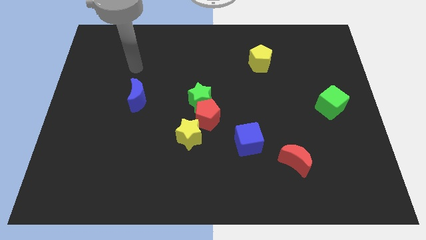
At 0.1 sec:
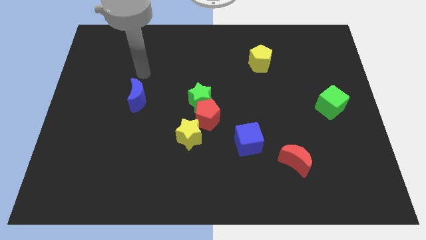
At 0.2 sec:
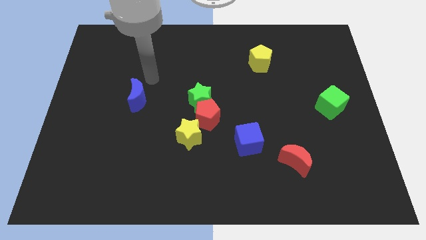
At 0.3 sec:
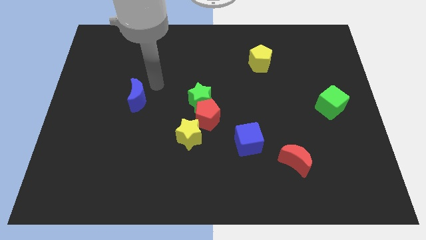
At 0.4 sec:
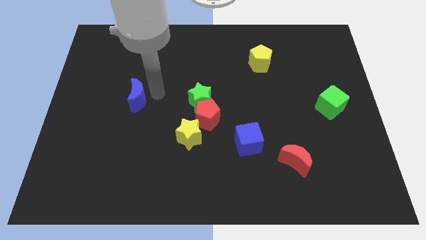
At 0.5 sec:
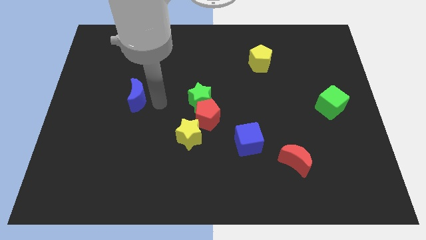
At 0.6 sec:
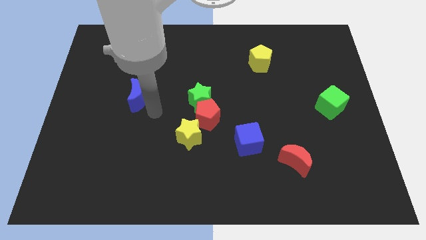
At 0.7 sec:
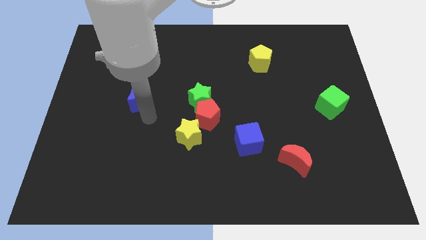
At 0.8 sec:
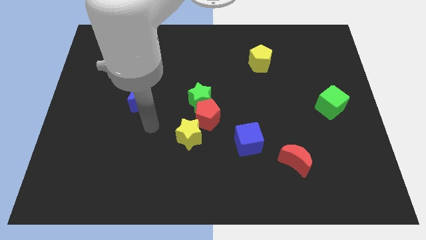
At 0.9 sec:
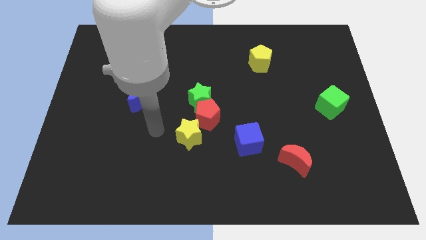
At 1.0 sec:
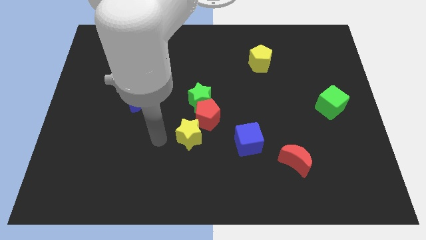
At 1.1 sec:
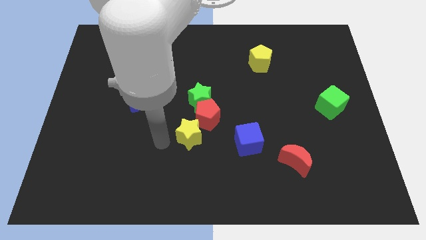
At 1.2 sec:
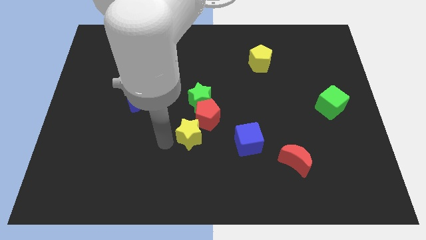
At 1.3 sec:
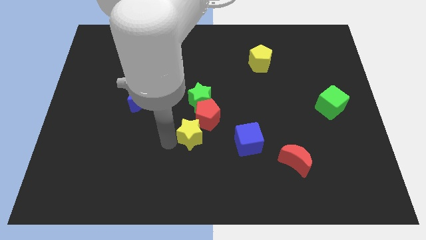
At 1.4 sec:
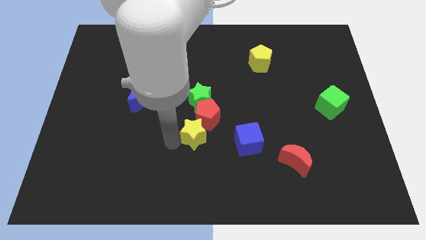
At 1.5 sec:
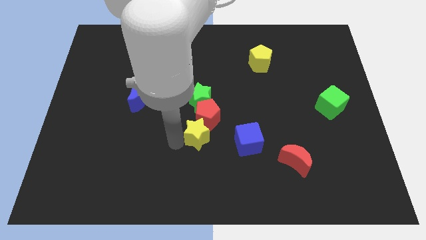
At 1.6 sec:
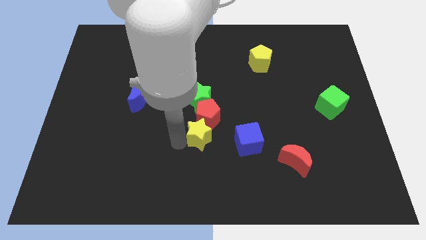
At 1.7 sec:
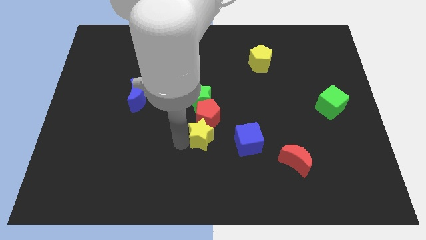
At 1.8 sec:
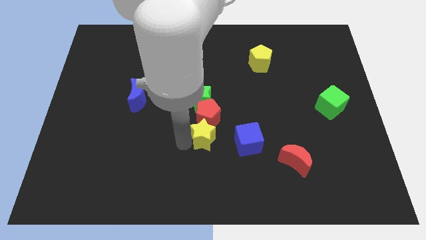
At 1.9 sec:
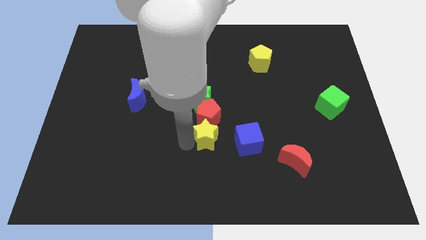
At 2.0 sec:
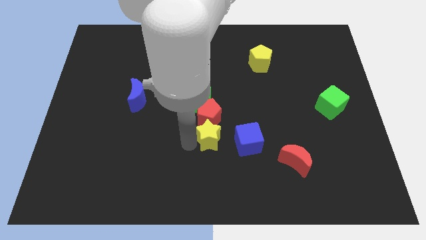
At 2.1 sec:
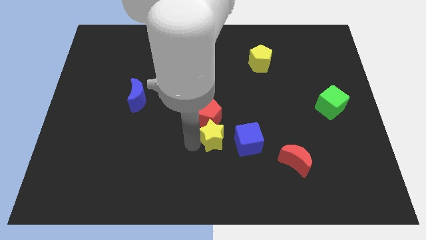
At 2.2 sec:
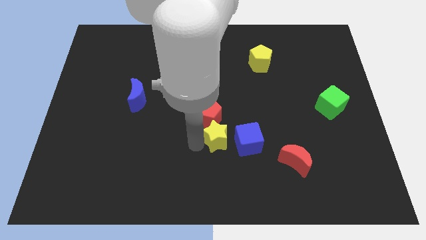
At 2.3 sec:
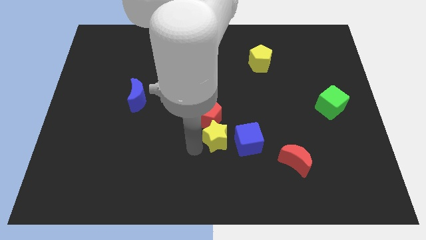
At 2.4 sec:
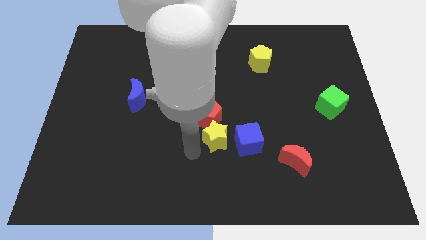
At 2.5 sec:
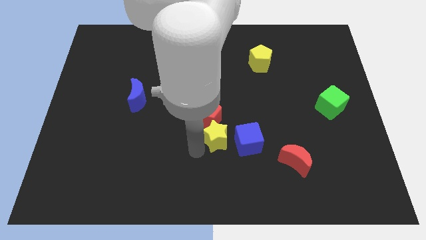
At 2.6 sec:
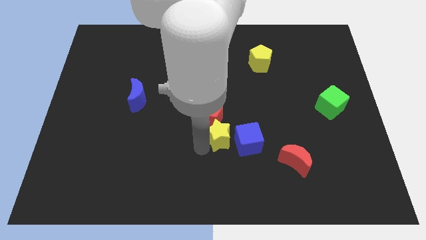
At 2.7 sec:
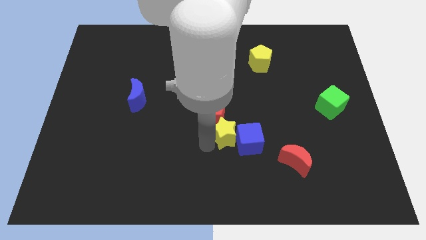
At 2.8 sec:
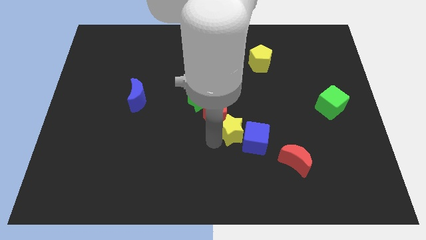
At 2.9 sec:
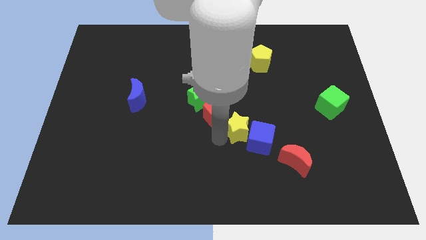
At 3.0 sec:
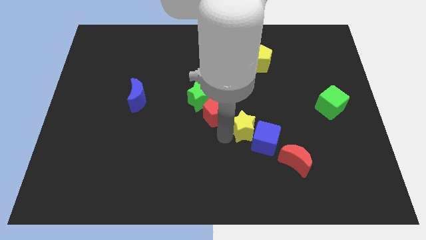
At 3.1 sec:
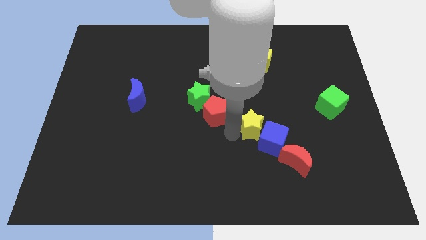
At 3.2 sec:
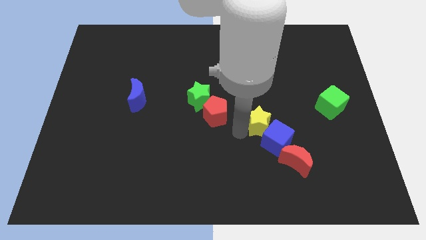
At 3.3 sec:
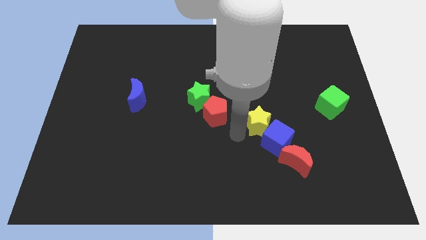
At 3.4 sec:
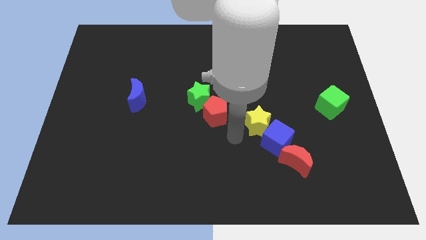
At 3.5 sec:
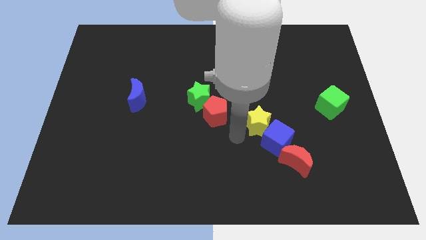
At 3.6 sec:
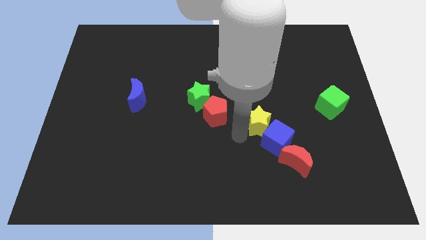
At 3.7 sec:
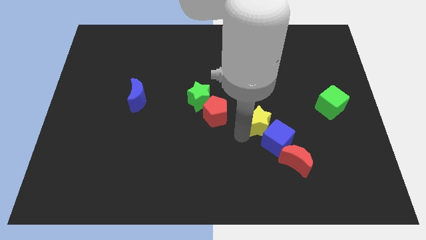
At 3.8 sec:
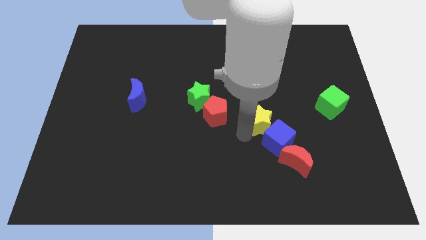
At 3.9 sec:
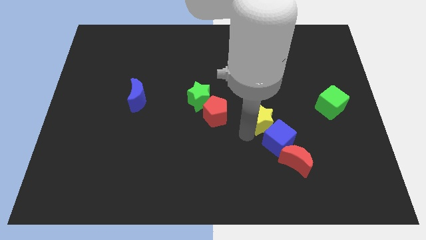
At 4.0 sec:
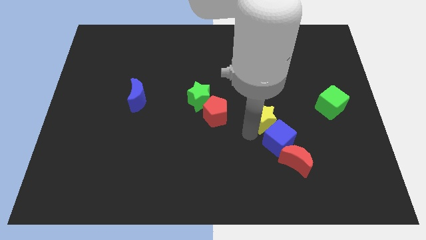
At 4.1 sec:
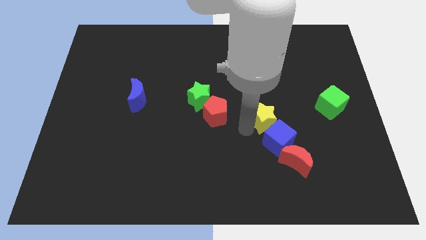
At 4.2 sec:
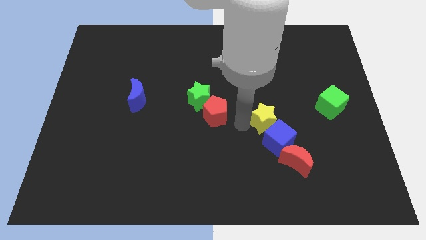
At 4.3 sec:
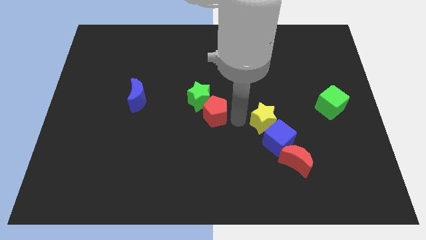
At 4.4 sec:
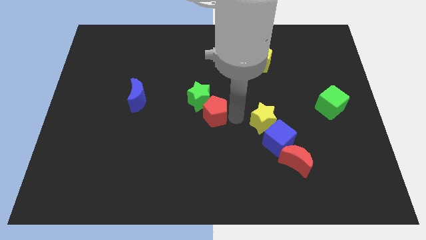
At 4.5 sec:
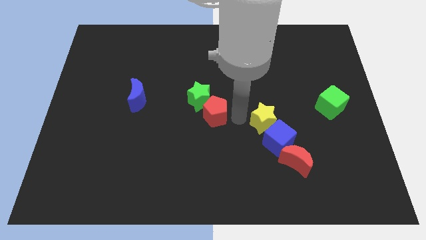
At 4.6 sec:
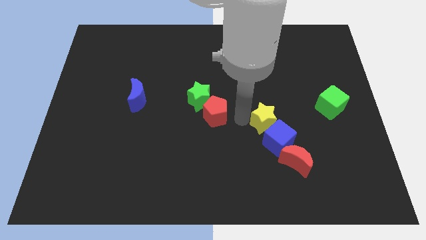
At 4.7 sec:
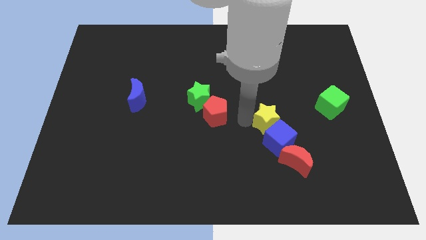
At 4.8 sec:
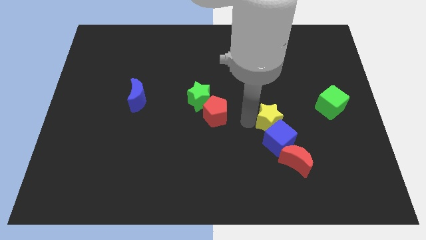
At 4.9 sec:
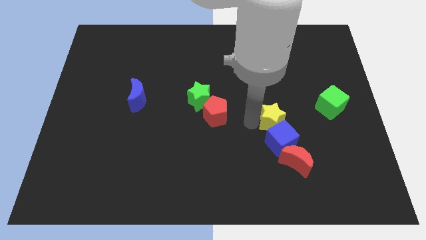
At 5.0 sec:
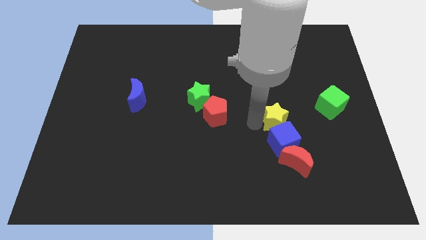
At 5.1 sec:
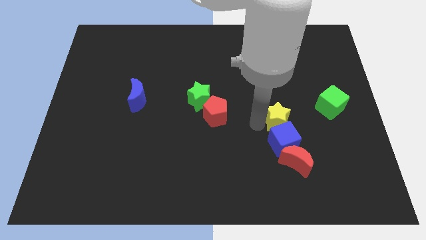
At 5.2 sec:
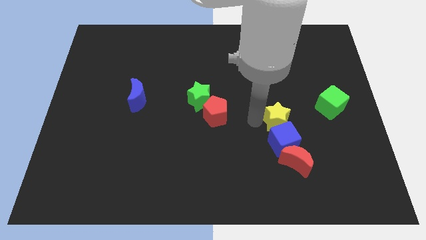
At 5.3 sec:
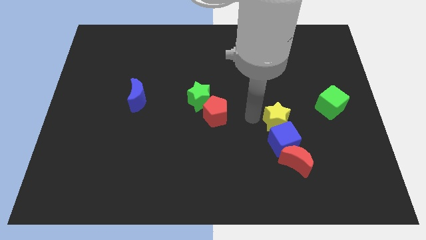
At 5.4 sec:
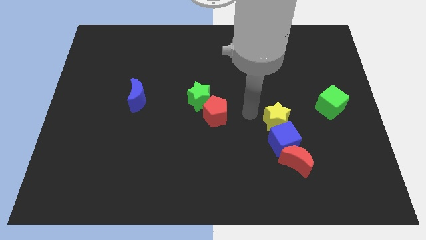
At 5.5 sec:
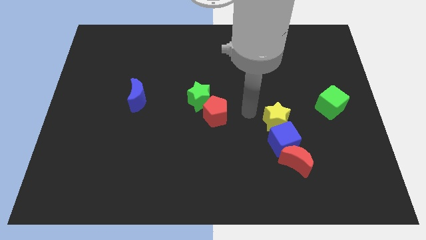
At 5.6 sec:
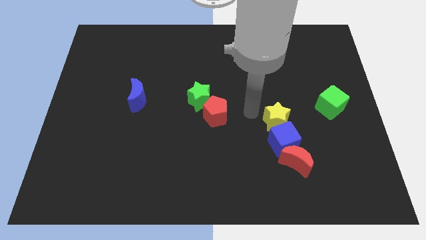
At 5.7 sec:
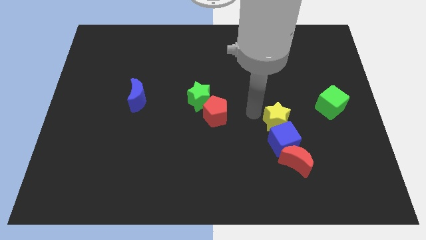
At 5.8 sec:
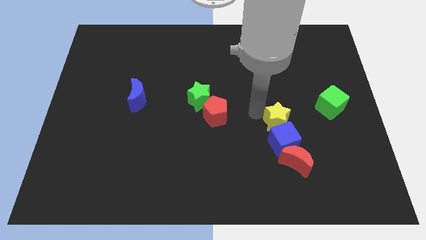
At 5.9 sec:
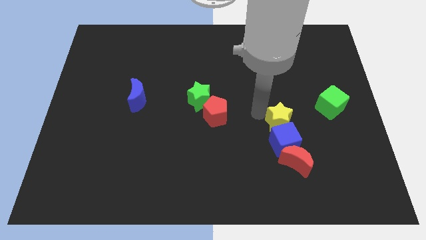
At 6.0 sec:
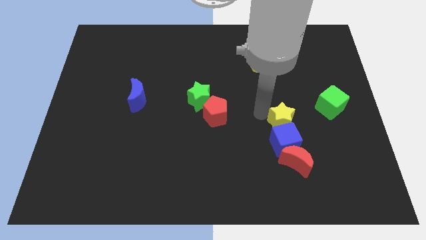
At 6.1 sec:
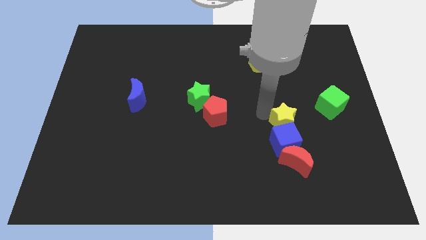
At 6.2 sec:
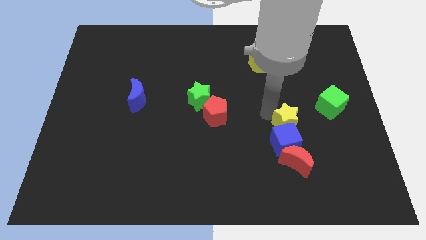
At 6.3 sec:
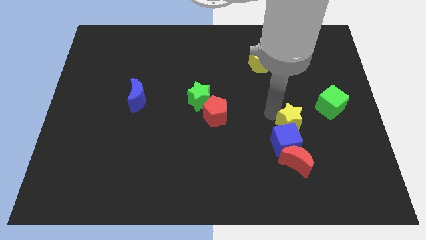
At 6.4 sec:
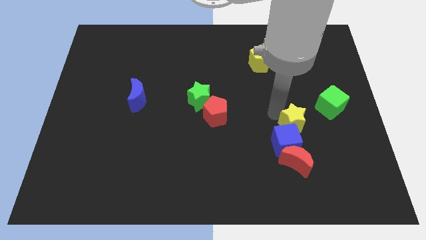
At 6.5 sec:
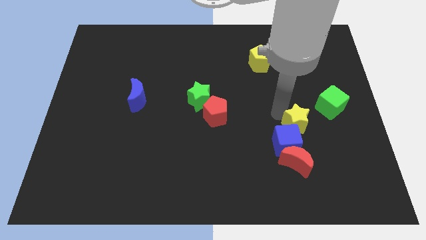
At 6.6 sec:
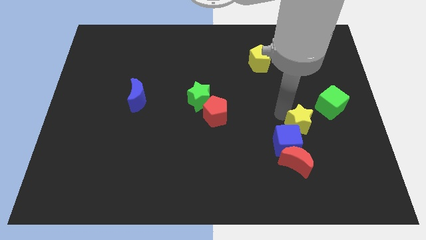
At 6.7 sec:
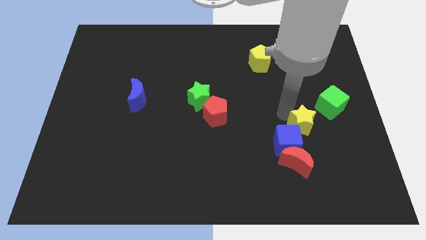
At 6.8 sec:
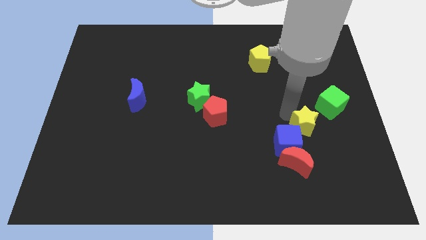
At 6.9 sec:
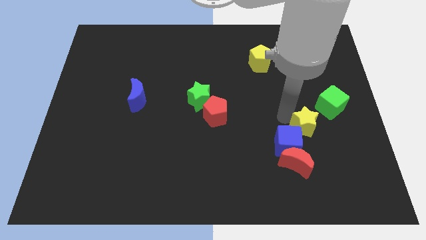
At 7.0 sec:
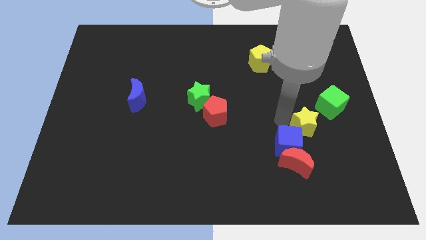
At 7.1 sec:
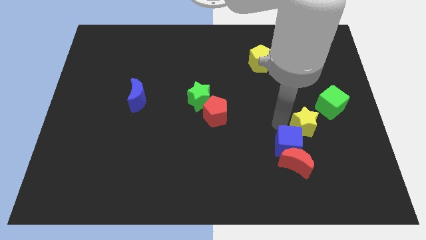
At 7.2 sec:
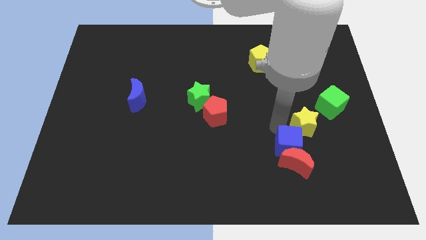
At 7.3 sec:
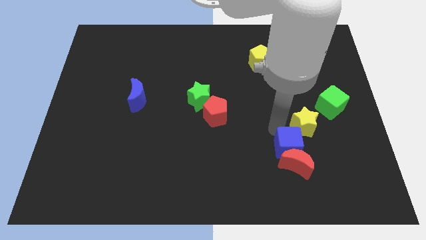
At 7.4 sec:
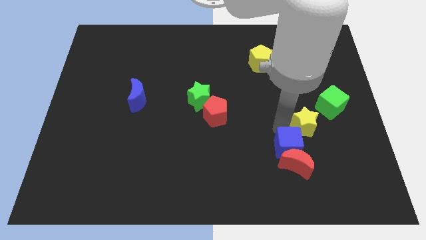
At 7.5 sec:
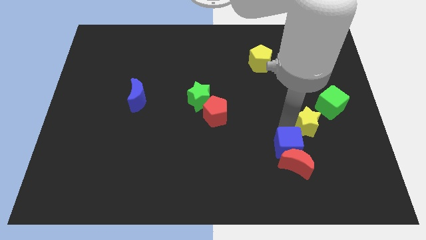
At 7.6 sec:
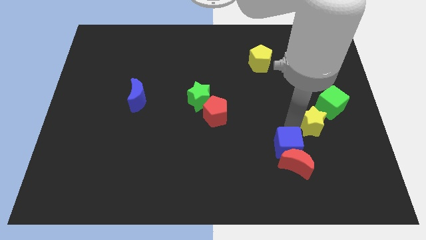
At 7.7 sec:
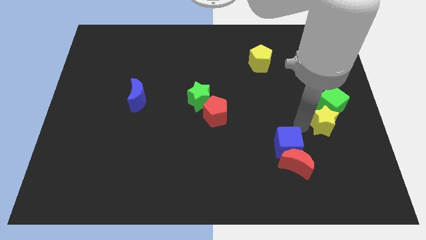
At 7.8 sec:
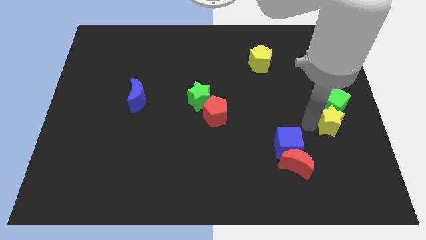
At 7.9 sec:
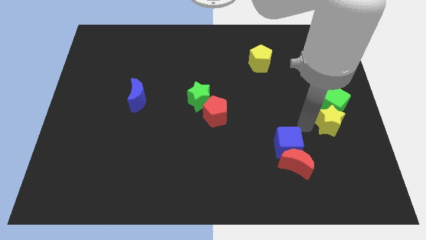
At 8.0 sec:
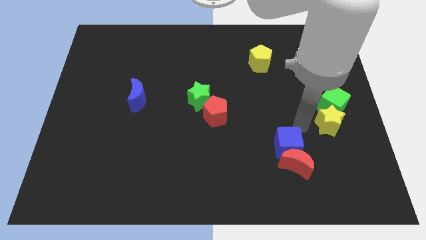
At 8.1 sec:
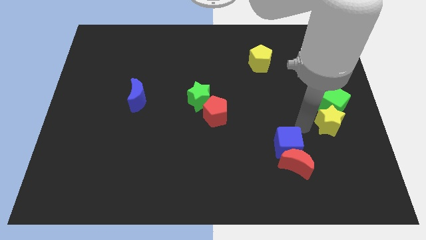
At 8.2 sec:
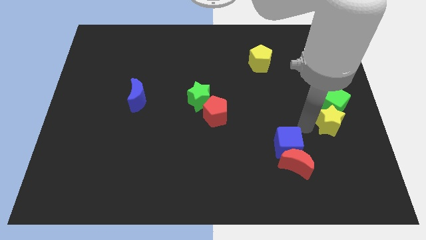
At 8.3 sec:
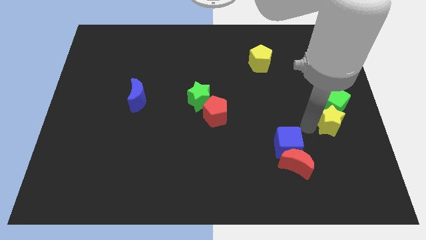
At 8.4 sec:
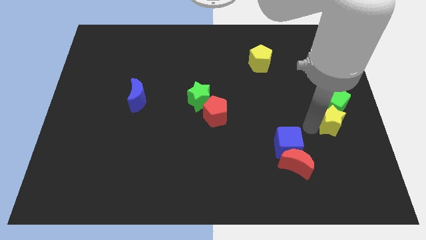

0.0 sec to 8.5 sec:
slide the yellow star to the right side of the board
